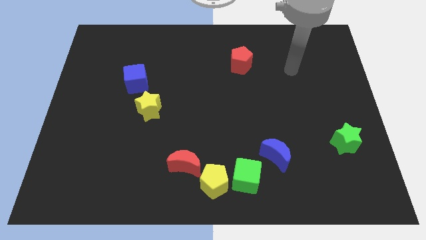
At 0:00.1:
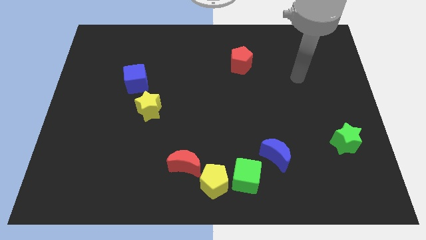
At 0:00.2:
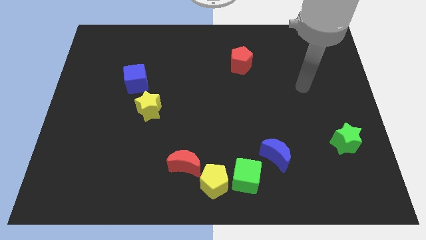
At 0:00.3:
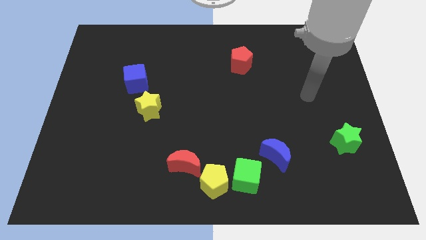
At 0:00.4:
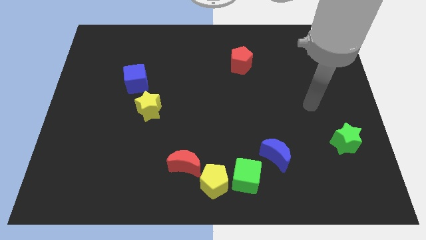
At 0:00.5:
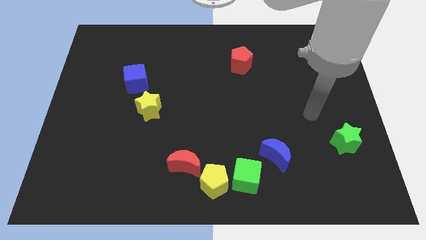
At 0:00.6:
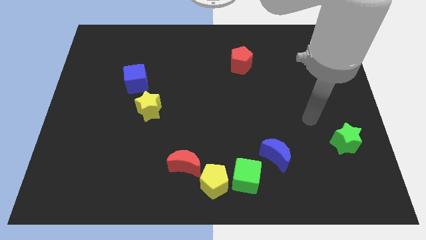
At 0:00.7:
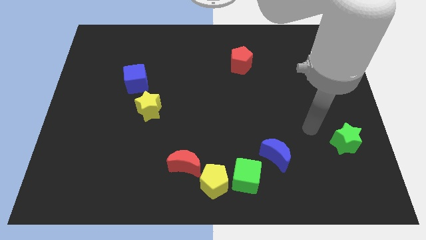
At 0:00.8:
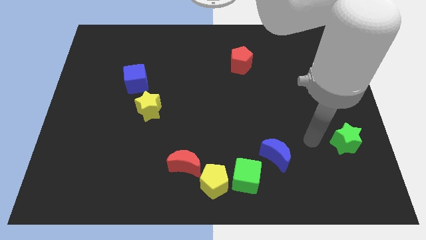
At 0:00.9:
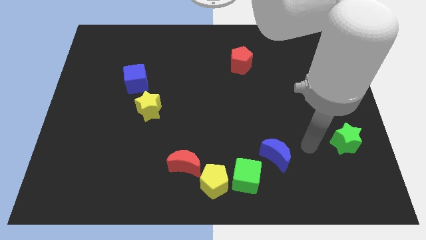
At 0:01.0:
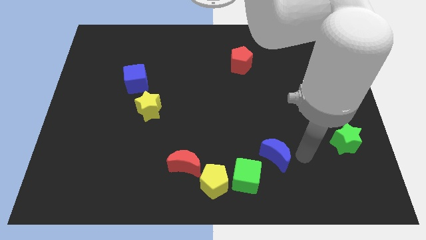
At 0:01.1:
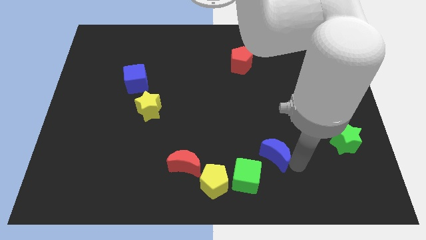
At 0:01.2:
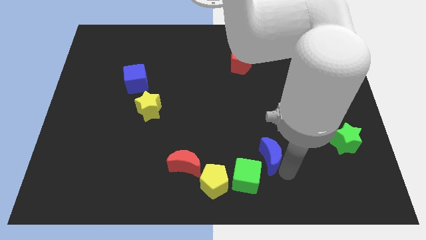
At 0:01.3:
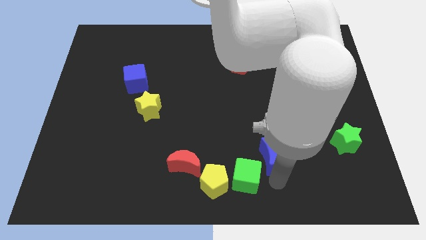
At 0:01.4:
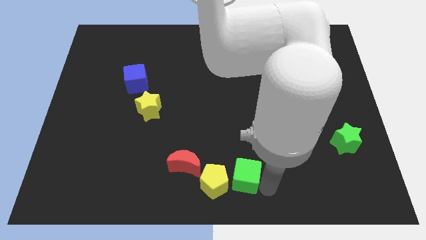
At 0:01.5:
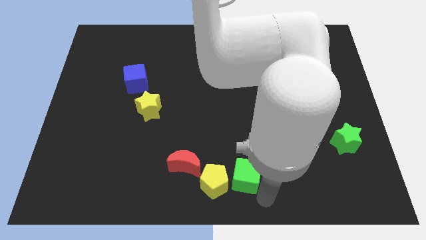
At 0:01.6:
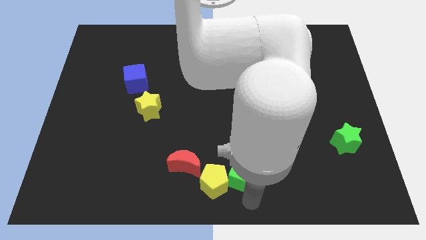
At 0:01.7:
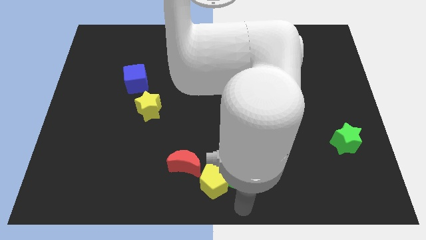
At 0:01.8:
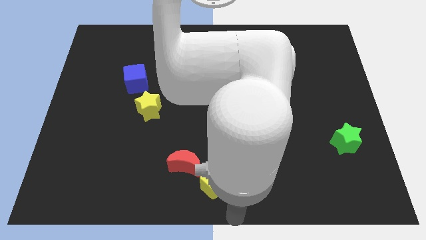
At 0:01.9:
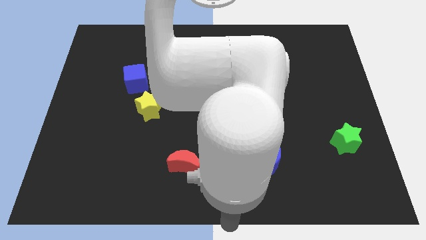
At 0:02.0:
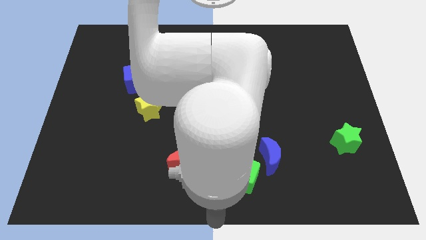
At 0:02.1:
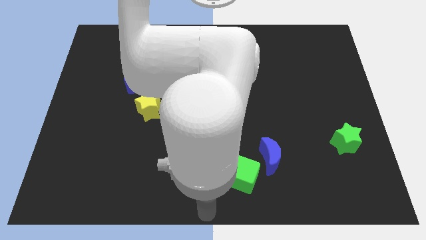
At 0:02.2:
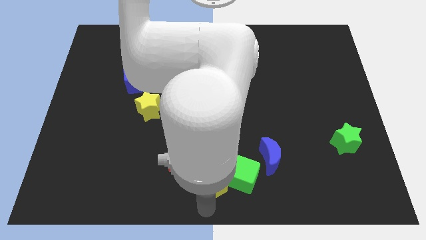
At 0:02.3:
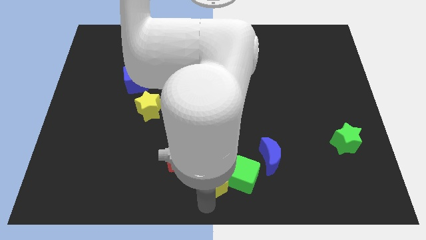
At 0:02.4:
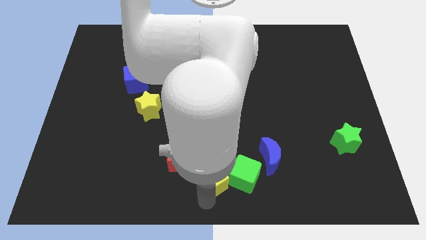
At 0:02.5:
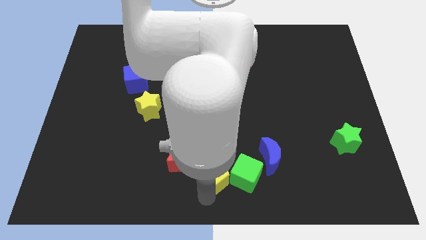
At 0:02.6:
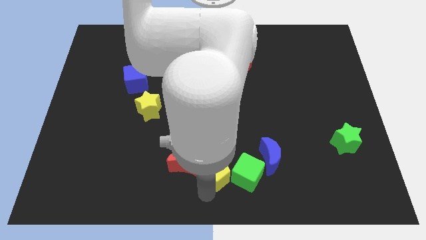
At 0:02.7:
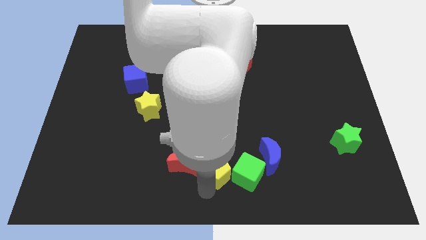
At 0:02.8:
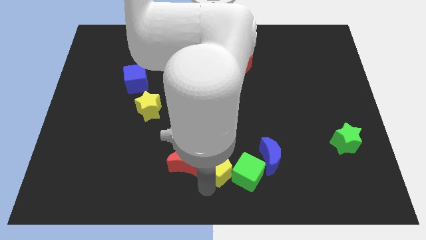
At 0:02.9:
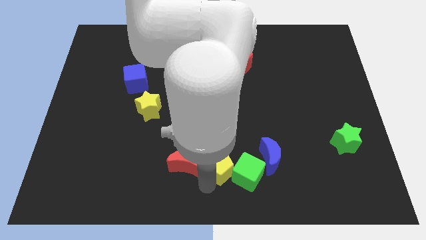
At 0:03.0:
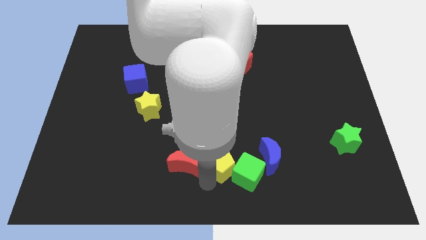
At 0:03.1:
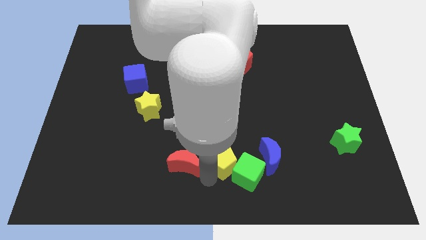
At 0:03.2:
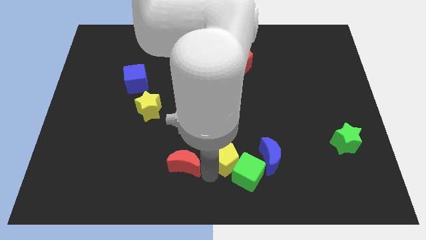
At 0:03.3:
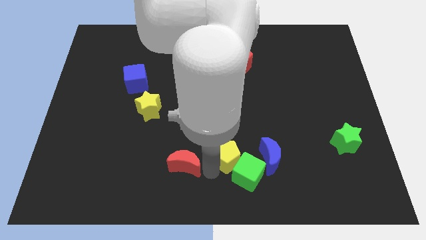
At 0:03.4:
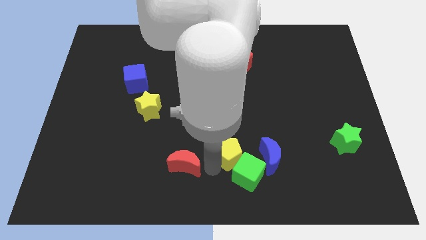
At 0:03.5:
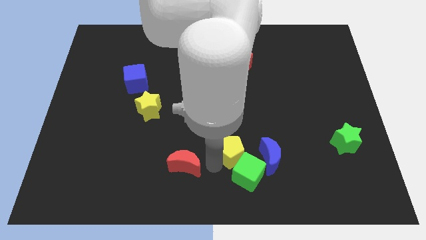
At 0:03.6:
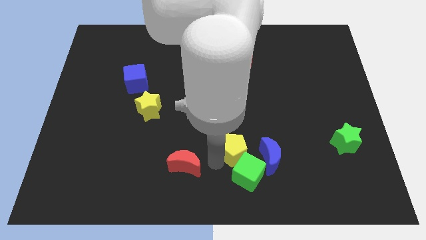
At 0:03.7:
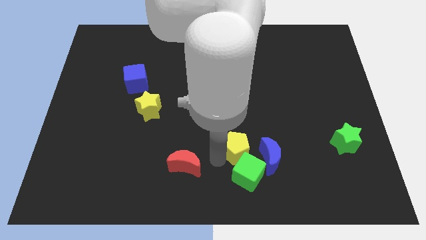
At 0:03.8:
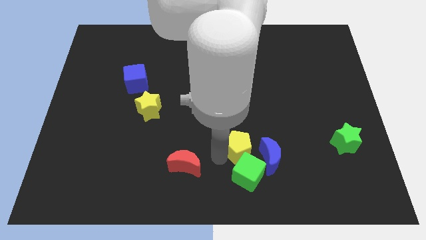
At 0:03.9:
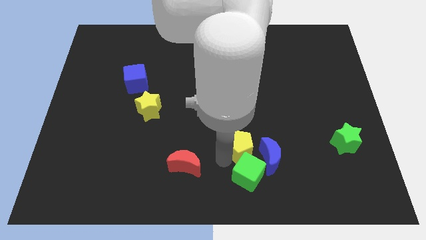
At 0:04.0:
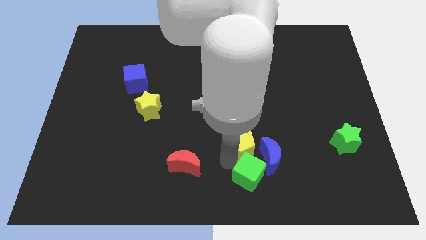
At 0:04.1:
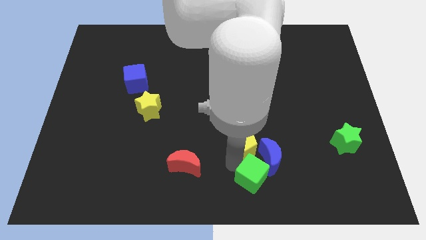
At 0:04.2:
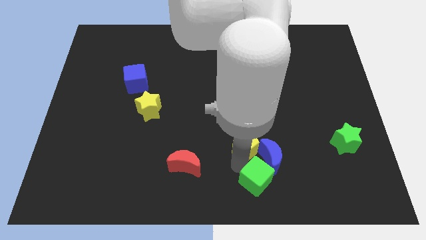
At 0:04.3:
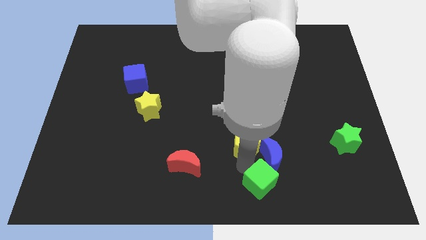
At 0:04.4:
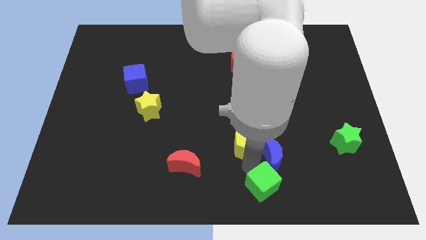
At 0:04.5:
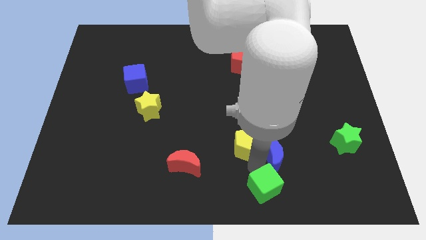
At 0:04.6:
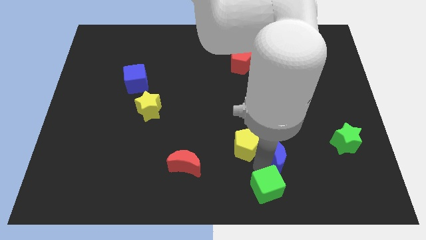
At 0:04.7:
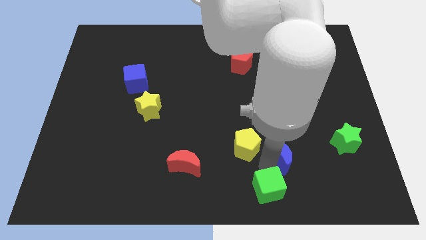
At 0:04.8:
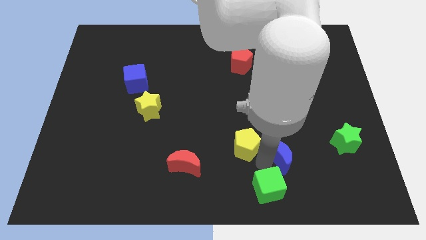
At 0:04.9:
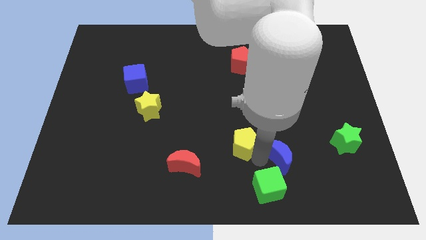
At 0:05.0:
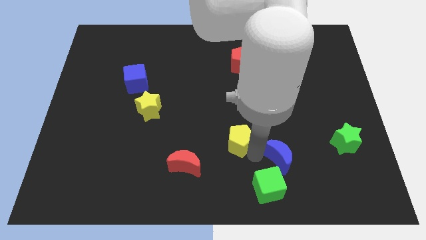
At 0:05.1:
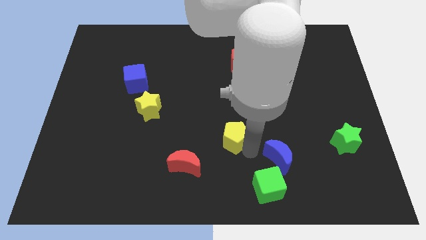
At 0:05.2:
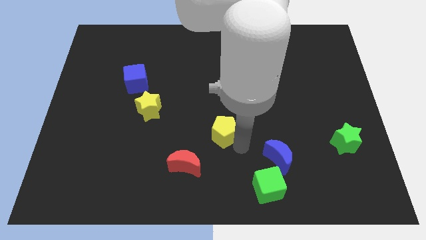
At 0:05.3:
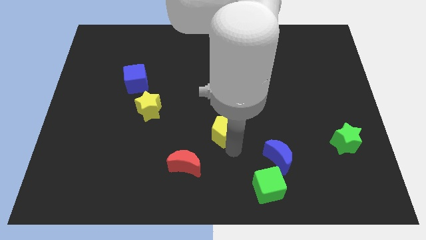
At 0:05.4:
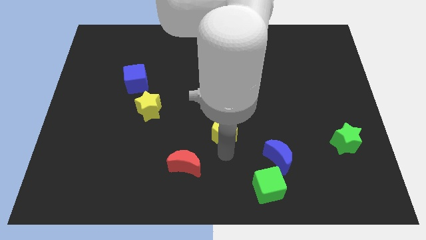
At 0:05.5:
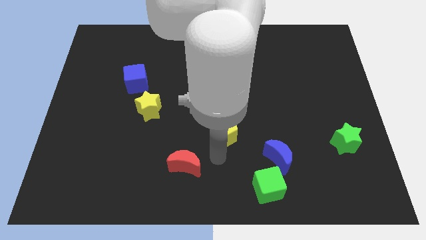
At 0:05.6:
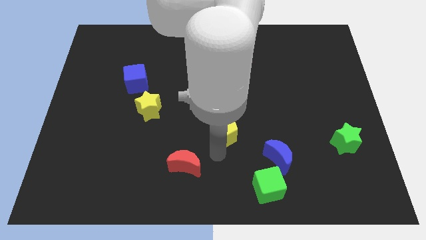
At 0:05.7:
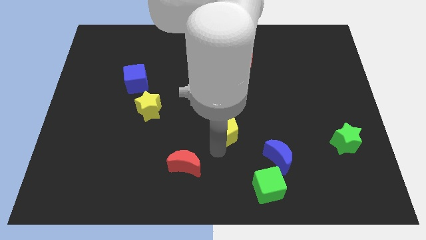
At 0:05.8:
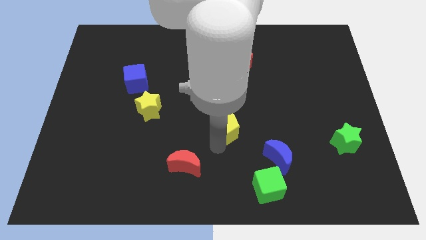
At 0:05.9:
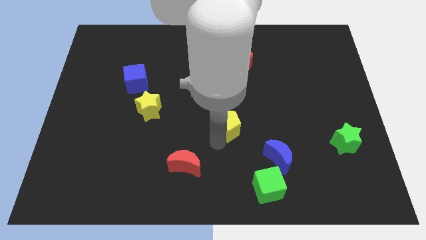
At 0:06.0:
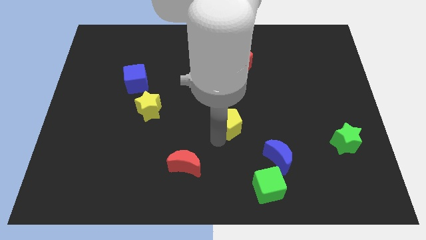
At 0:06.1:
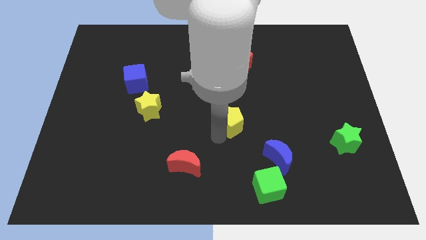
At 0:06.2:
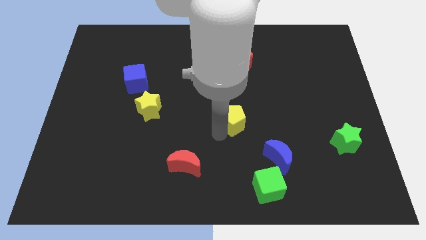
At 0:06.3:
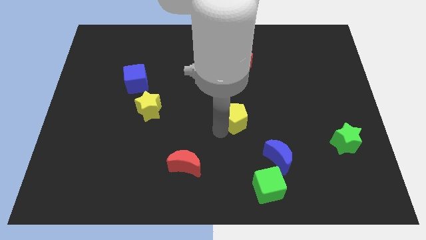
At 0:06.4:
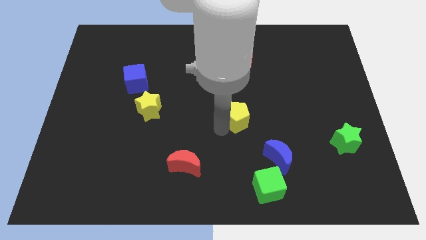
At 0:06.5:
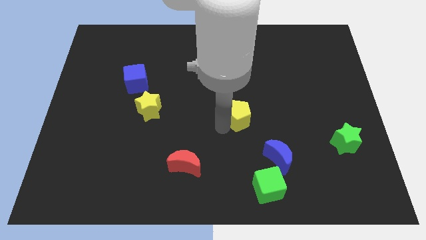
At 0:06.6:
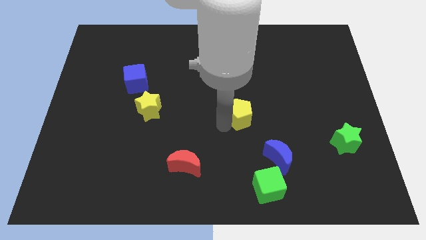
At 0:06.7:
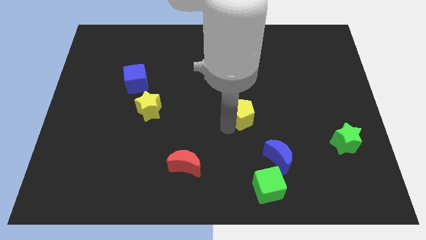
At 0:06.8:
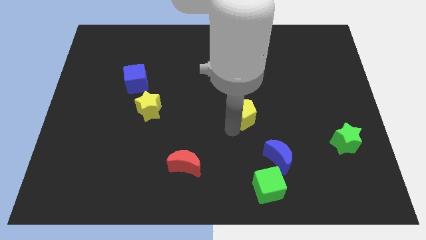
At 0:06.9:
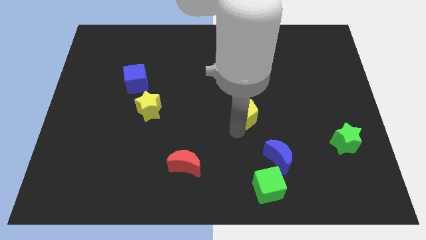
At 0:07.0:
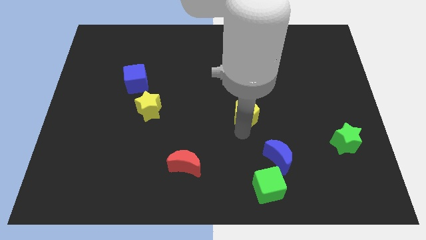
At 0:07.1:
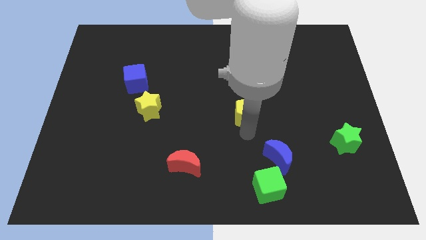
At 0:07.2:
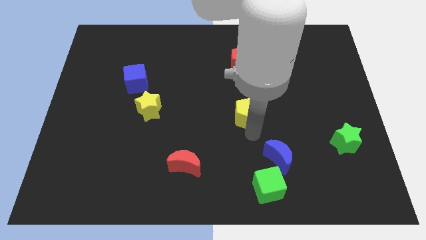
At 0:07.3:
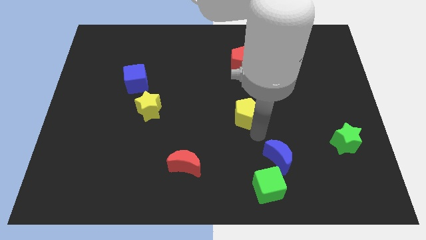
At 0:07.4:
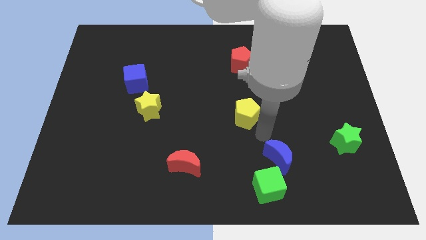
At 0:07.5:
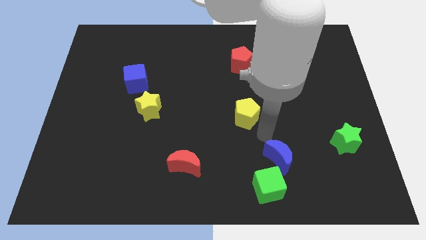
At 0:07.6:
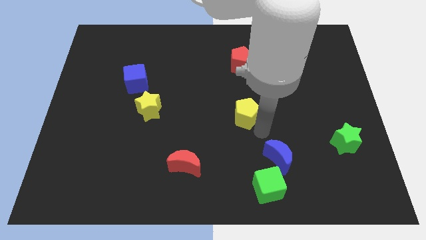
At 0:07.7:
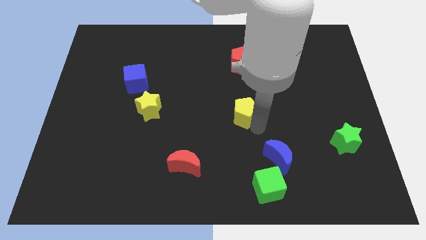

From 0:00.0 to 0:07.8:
put the yellow pentagon below the red pentagon
